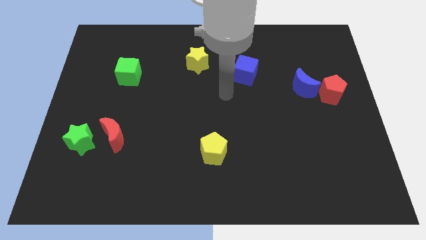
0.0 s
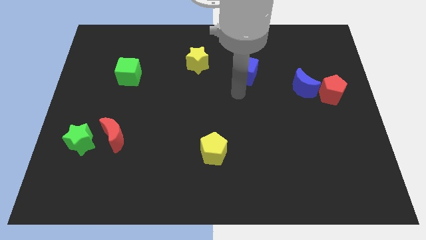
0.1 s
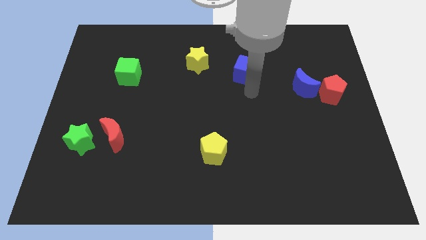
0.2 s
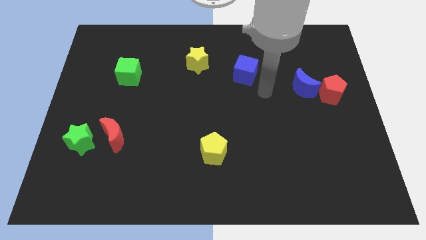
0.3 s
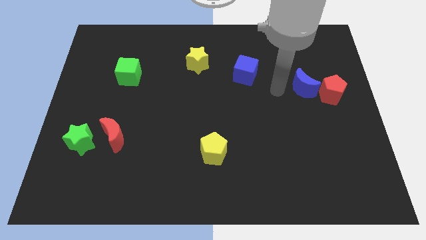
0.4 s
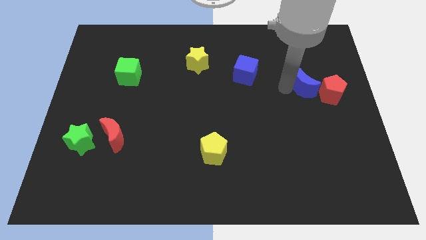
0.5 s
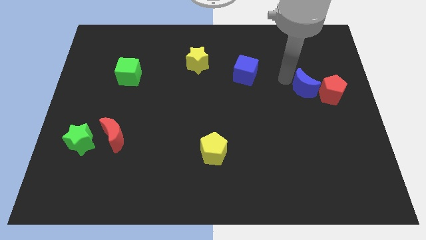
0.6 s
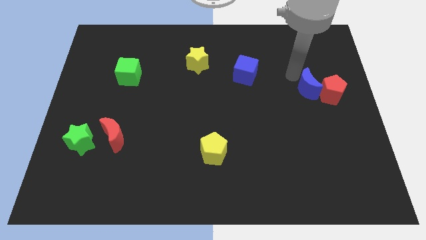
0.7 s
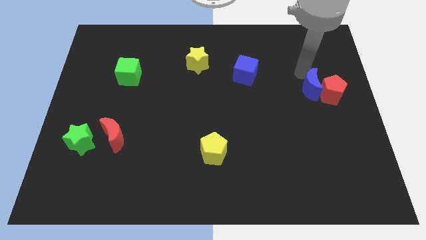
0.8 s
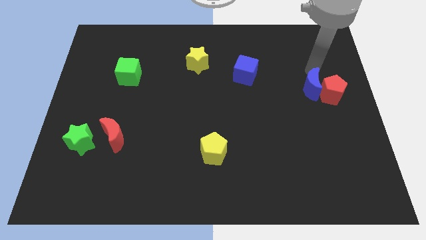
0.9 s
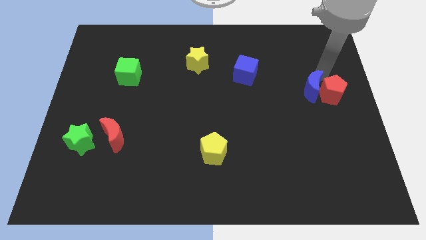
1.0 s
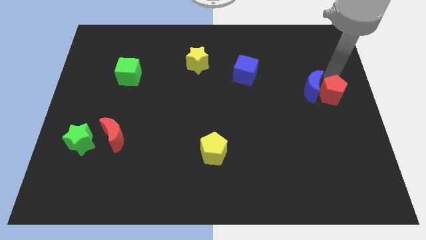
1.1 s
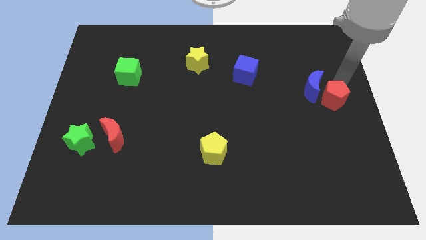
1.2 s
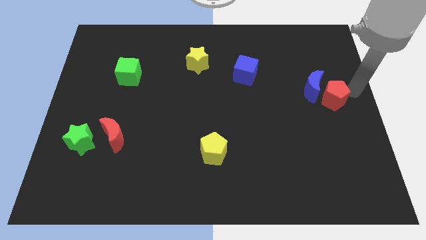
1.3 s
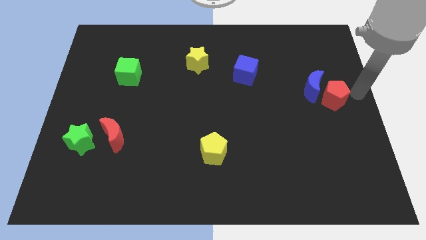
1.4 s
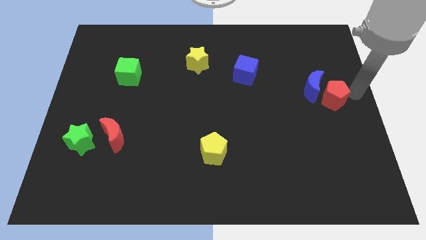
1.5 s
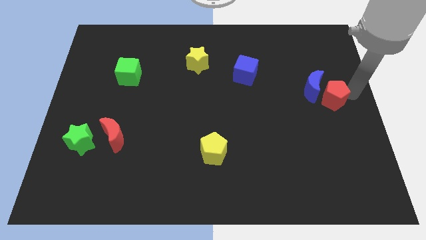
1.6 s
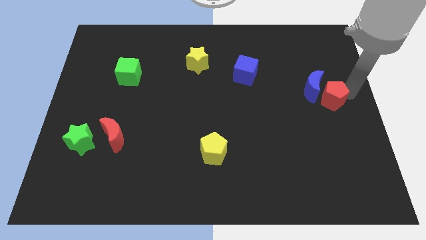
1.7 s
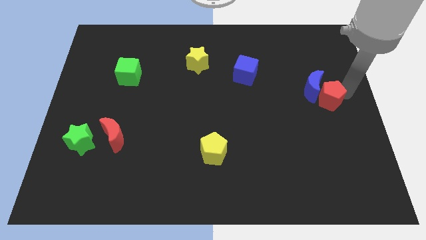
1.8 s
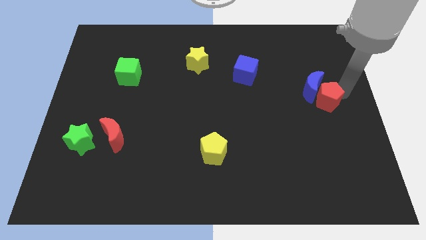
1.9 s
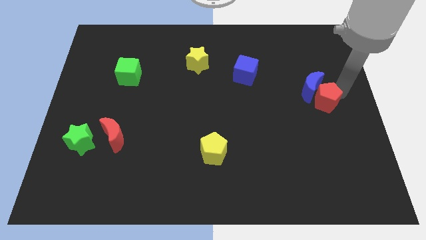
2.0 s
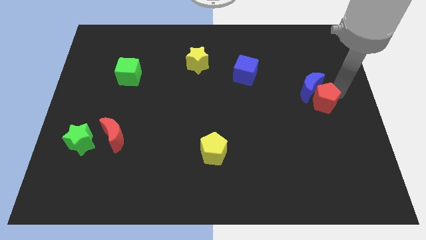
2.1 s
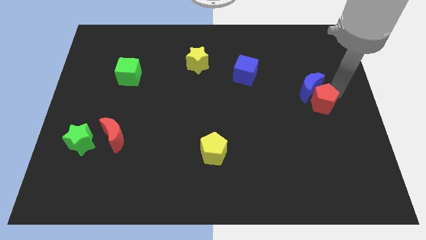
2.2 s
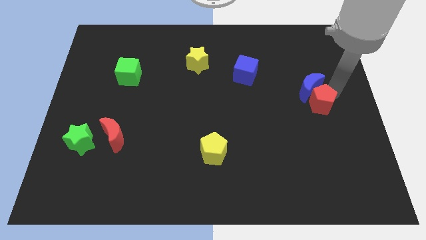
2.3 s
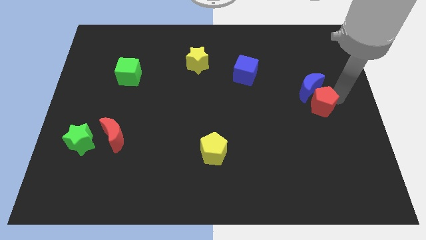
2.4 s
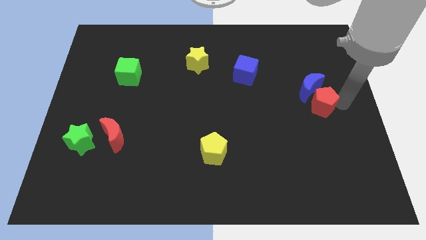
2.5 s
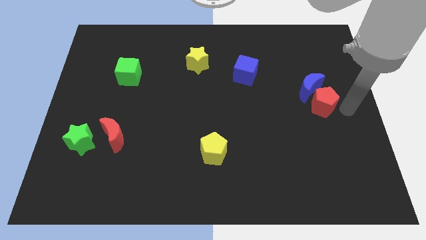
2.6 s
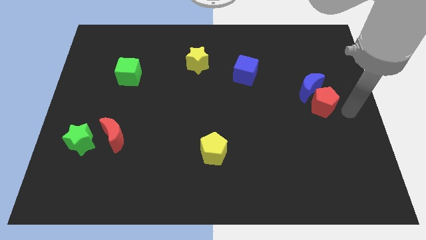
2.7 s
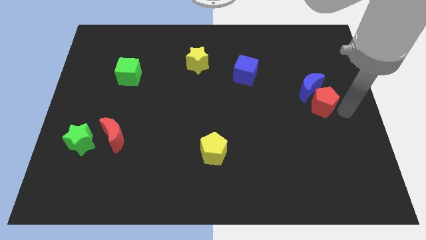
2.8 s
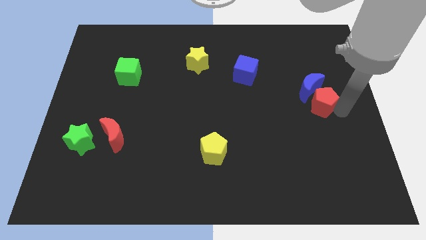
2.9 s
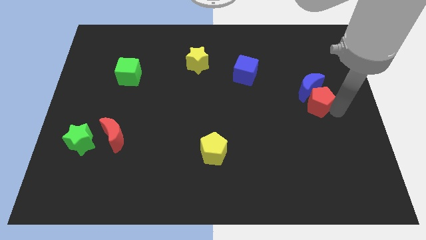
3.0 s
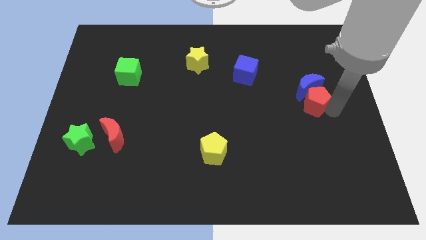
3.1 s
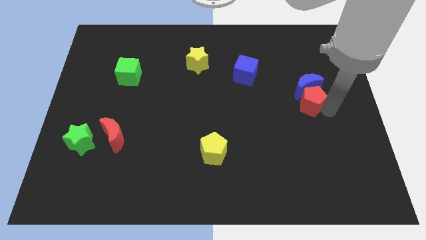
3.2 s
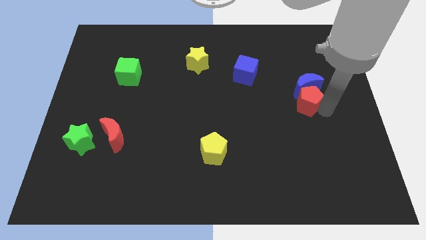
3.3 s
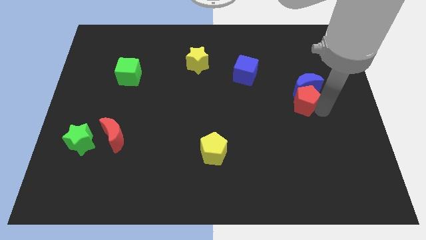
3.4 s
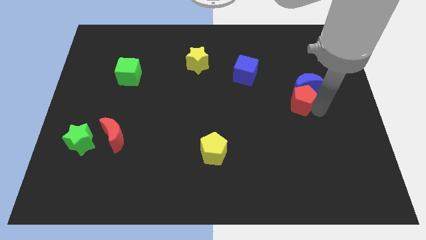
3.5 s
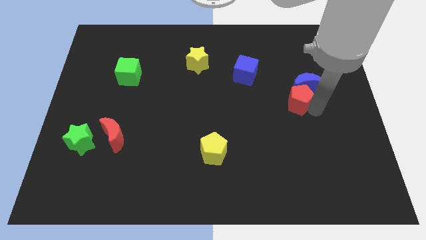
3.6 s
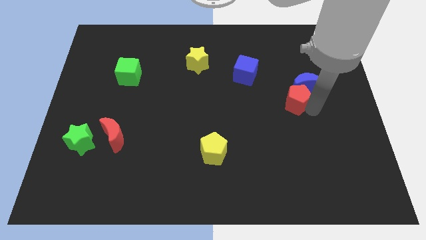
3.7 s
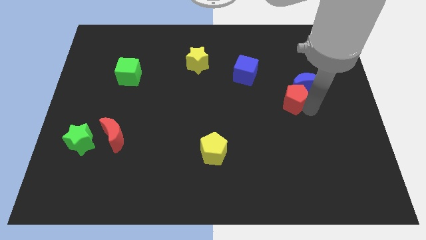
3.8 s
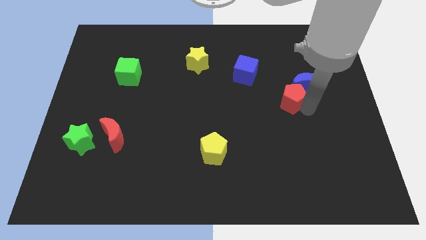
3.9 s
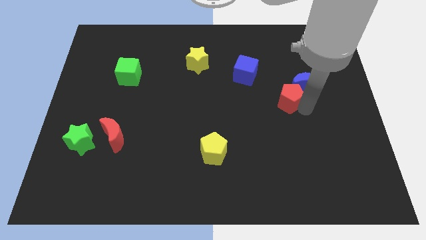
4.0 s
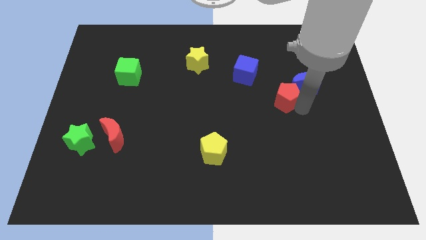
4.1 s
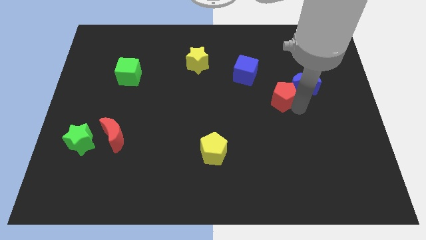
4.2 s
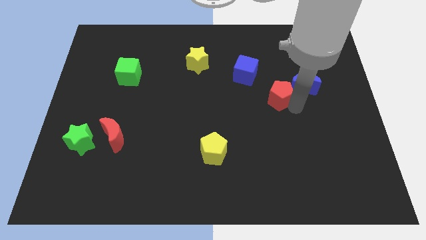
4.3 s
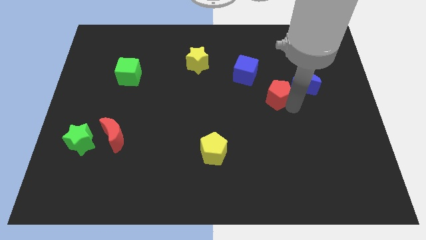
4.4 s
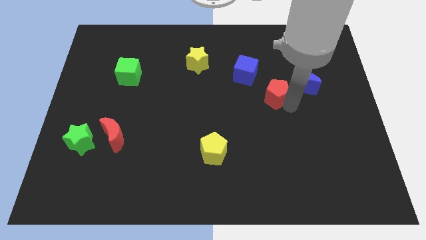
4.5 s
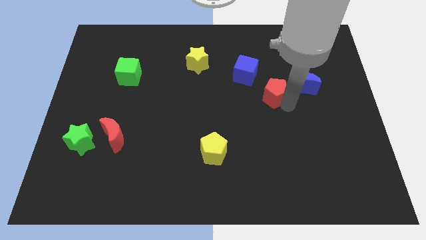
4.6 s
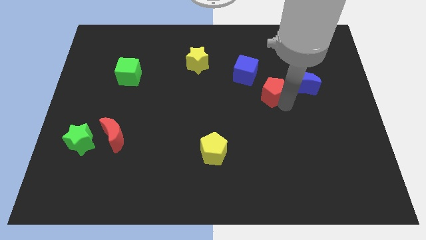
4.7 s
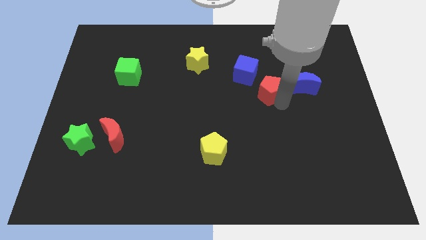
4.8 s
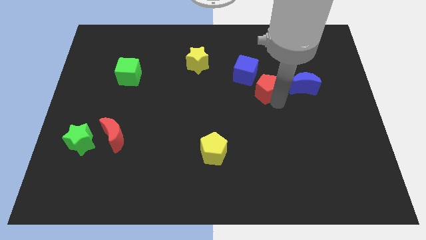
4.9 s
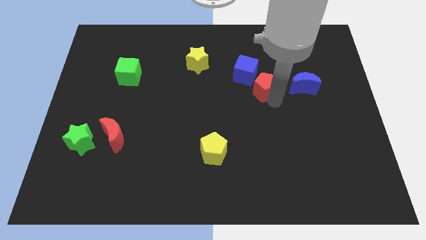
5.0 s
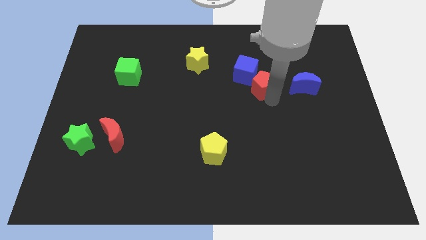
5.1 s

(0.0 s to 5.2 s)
push the red pentagon to the blue cube

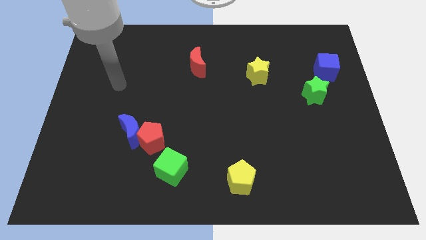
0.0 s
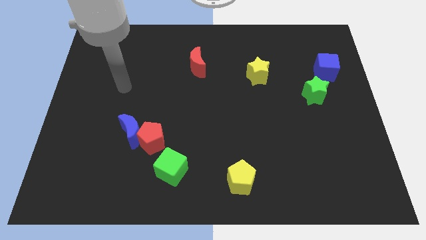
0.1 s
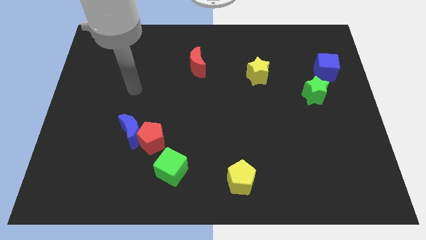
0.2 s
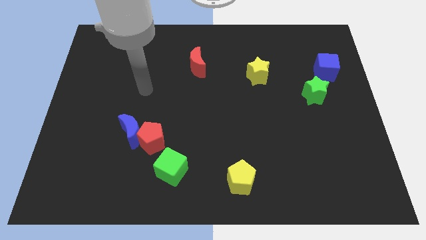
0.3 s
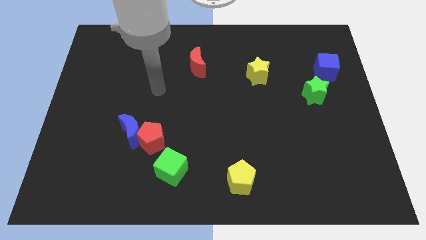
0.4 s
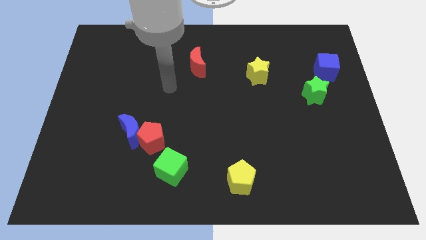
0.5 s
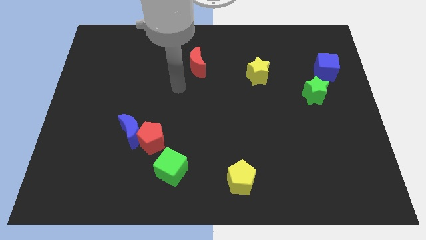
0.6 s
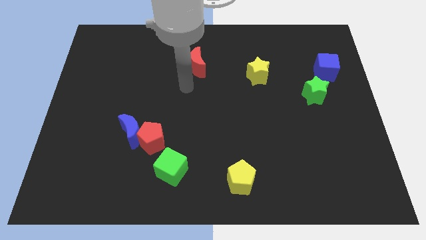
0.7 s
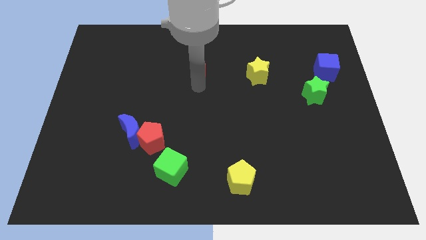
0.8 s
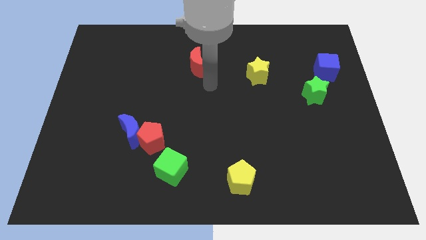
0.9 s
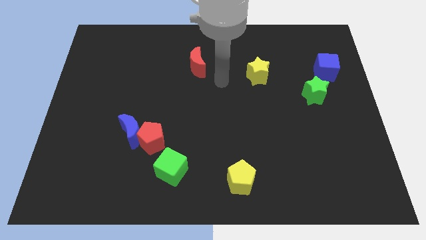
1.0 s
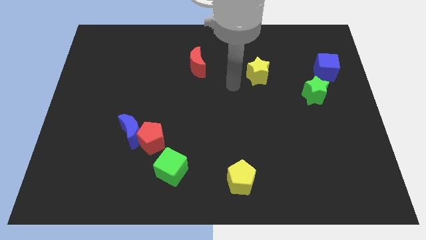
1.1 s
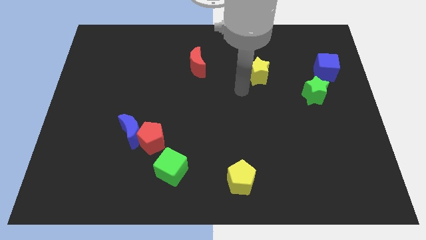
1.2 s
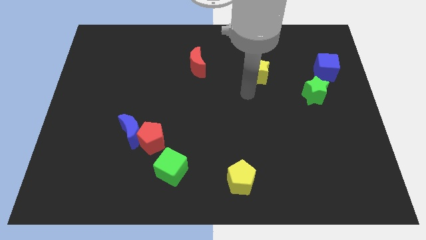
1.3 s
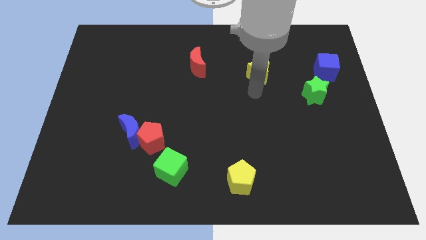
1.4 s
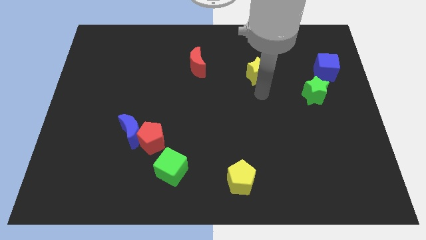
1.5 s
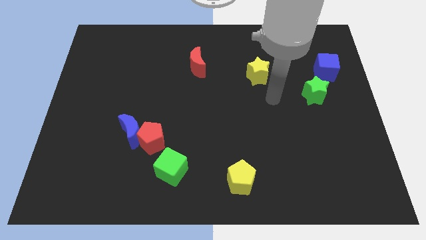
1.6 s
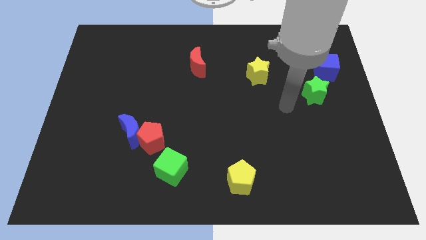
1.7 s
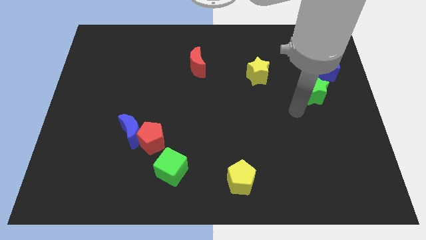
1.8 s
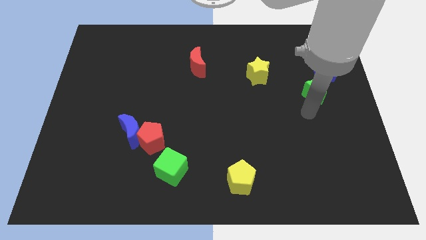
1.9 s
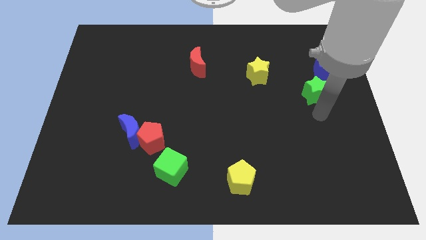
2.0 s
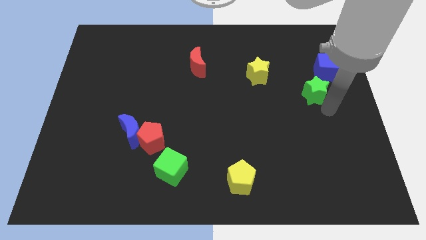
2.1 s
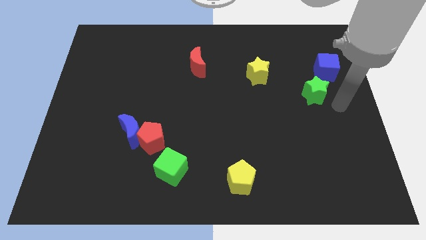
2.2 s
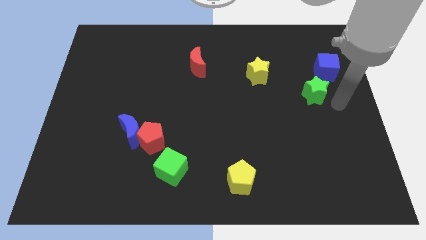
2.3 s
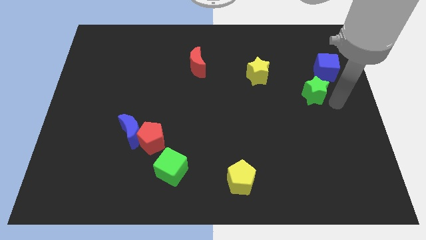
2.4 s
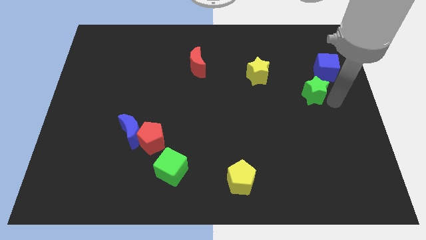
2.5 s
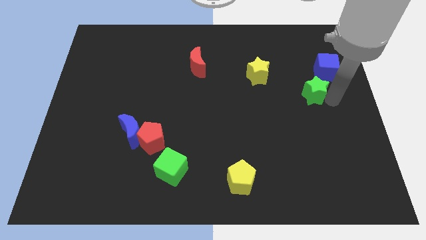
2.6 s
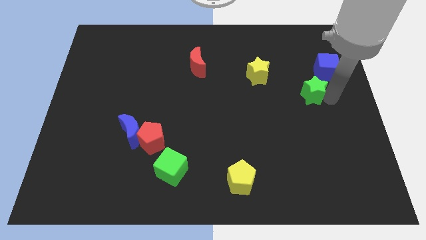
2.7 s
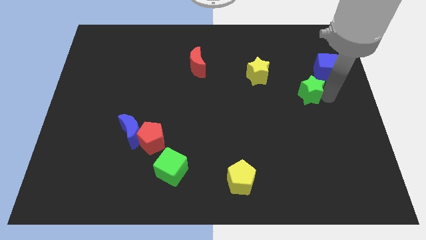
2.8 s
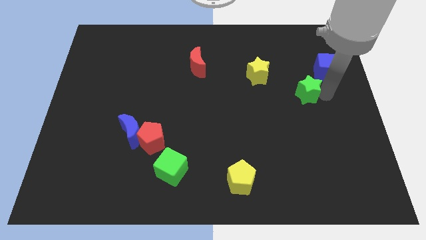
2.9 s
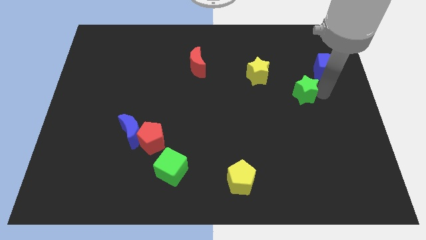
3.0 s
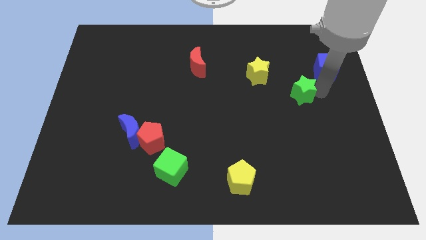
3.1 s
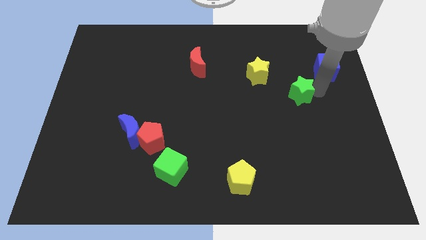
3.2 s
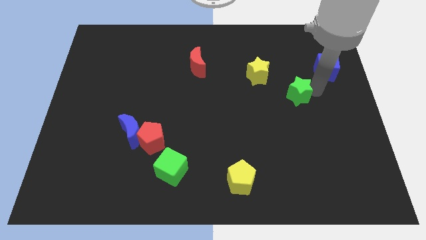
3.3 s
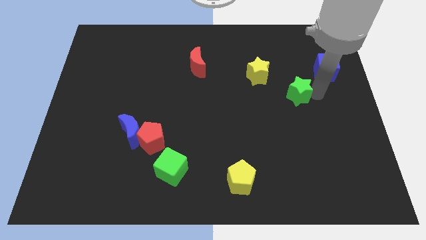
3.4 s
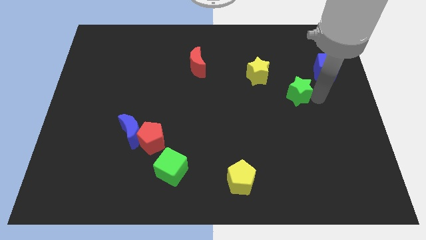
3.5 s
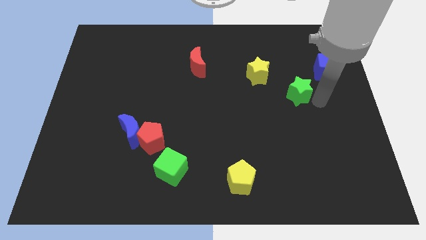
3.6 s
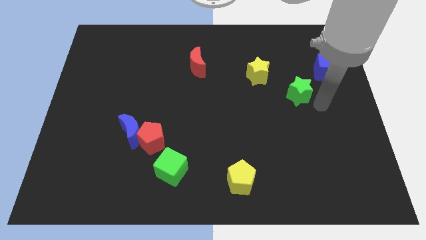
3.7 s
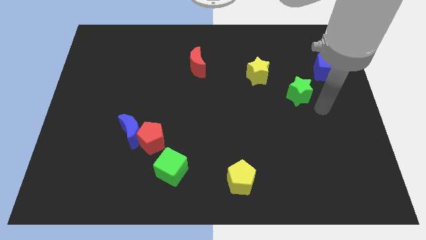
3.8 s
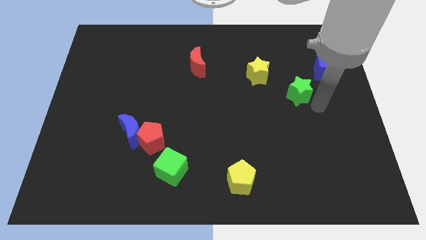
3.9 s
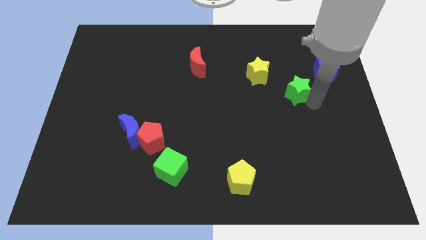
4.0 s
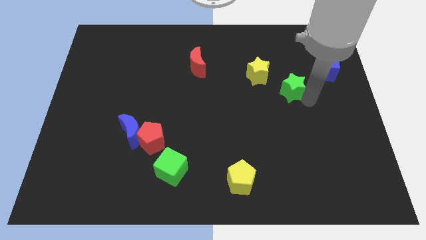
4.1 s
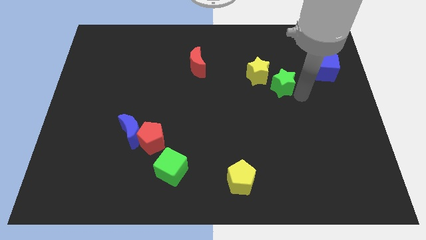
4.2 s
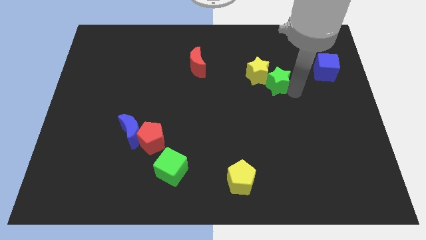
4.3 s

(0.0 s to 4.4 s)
put the green star towards the yellow star
